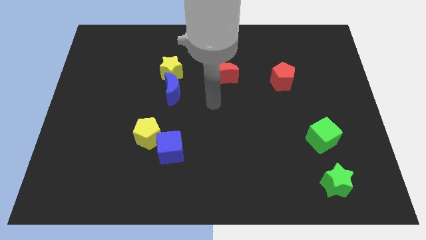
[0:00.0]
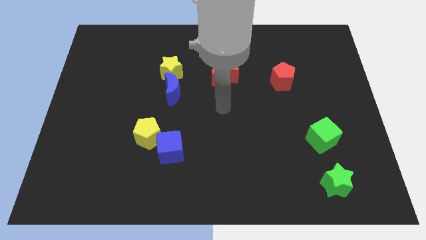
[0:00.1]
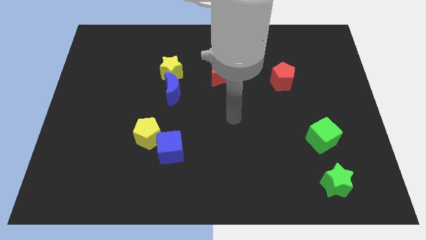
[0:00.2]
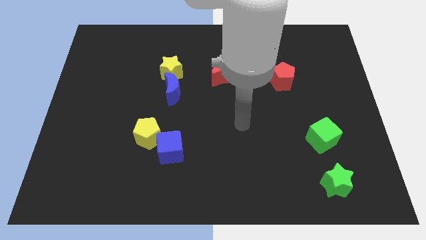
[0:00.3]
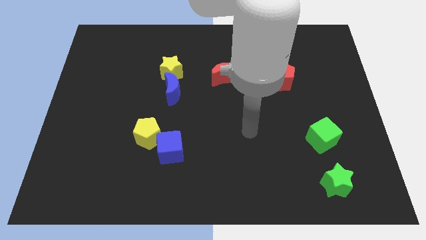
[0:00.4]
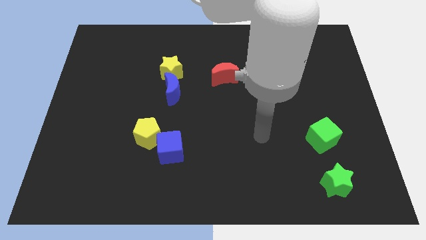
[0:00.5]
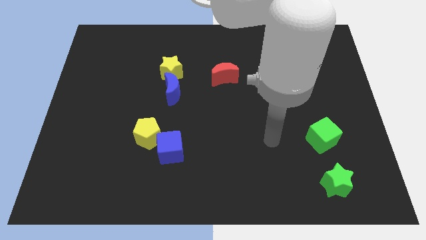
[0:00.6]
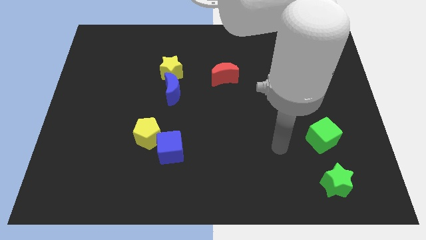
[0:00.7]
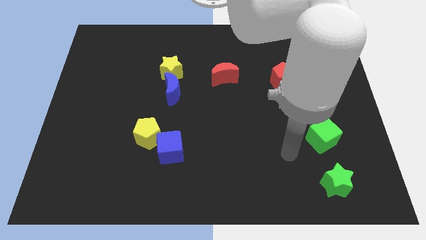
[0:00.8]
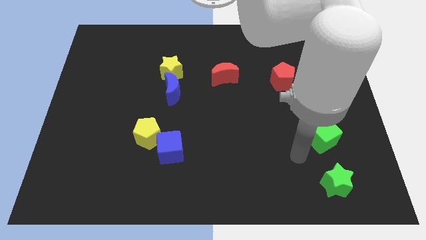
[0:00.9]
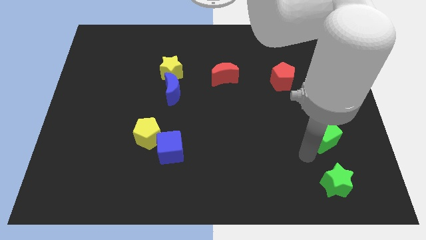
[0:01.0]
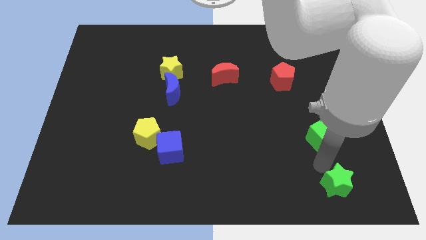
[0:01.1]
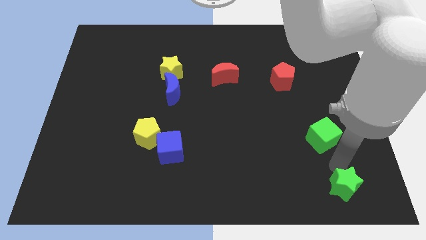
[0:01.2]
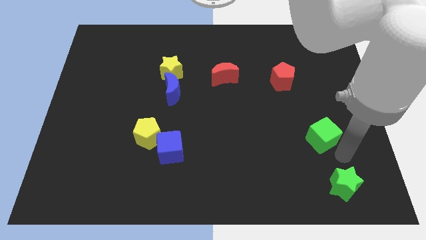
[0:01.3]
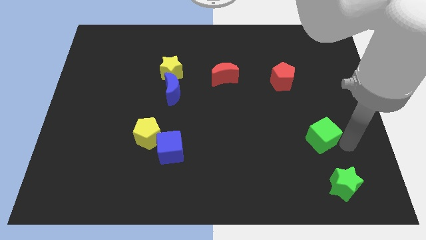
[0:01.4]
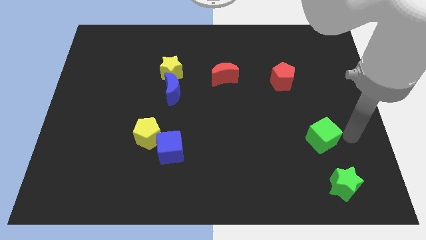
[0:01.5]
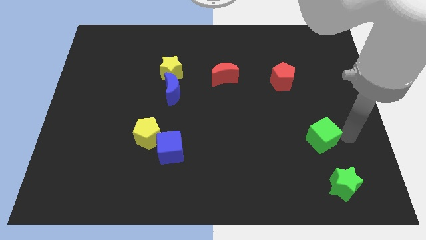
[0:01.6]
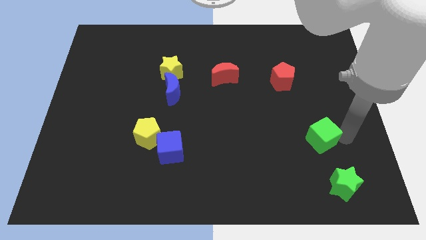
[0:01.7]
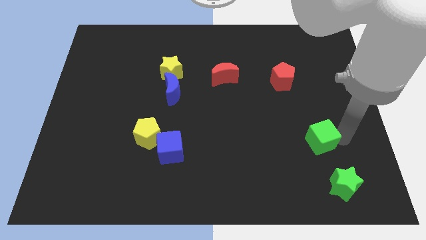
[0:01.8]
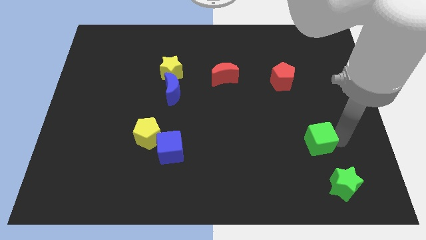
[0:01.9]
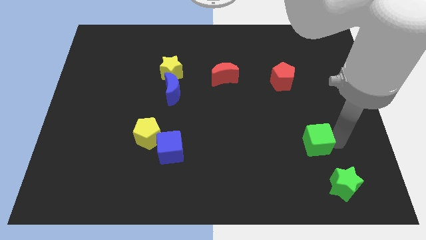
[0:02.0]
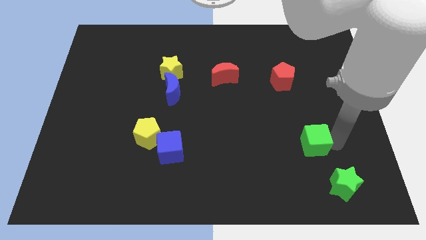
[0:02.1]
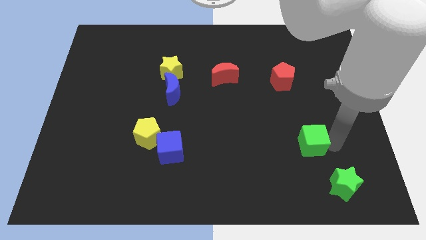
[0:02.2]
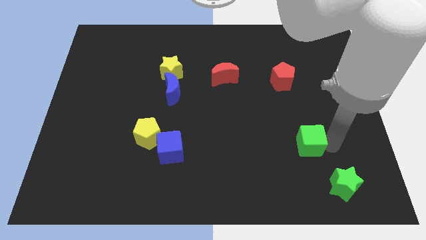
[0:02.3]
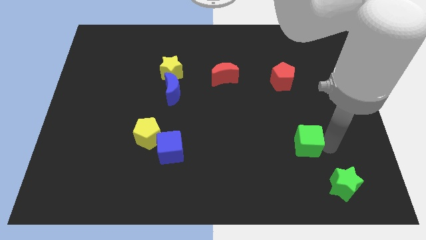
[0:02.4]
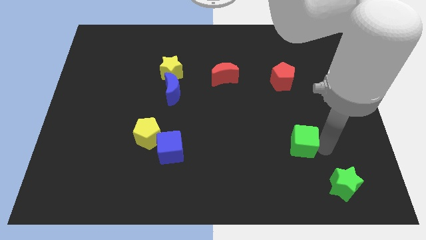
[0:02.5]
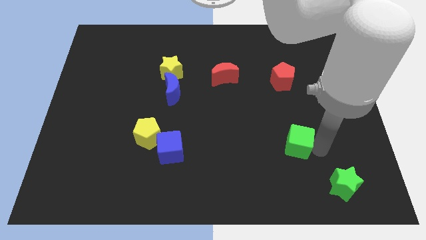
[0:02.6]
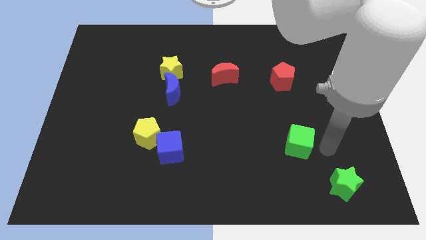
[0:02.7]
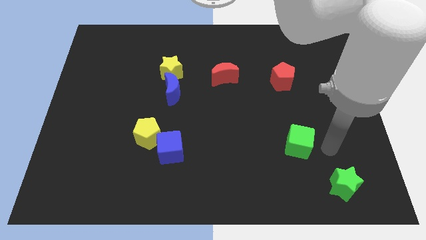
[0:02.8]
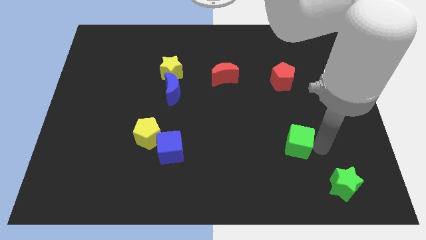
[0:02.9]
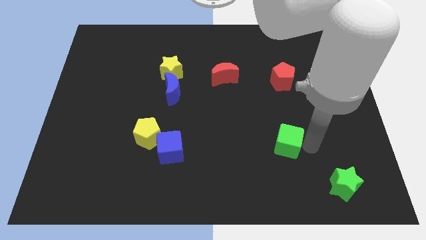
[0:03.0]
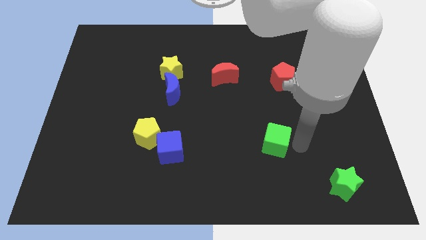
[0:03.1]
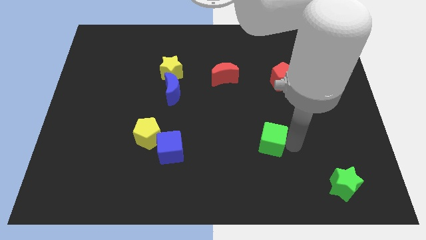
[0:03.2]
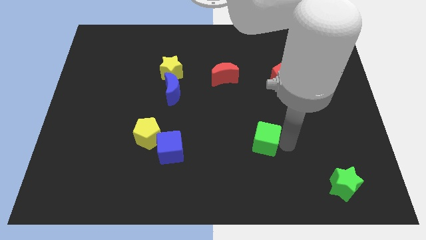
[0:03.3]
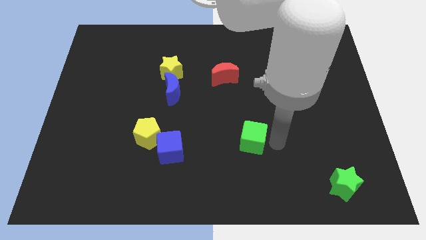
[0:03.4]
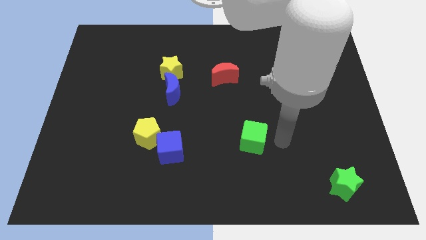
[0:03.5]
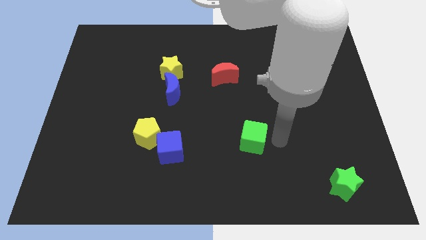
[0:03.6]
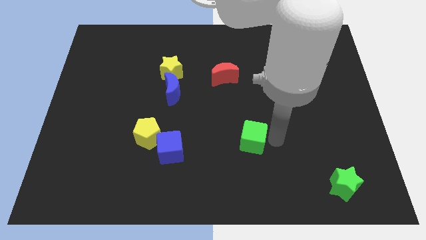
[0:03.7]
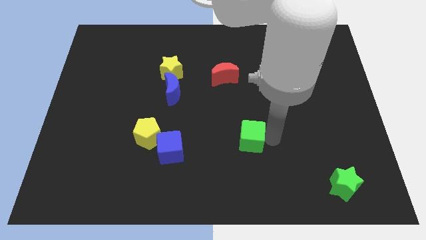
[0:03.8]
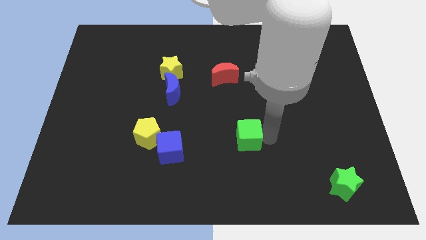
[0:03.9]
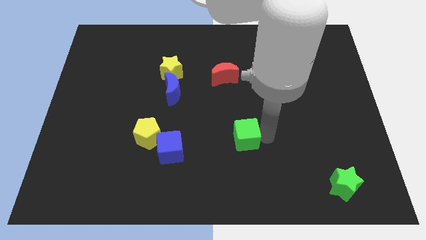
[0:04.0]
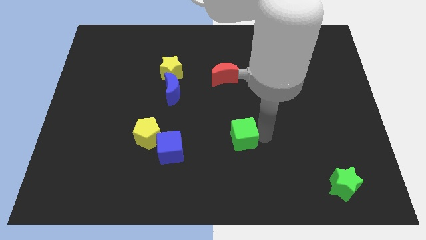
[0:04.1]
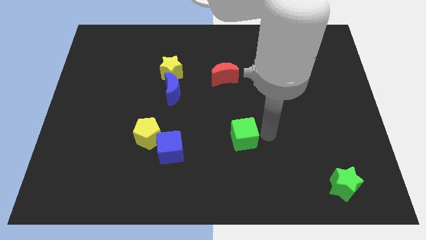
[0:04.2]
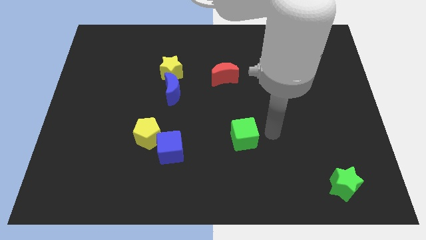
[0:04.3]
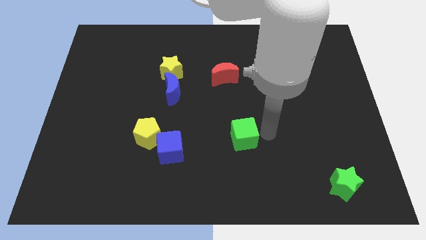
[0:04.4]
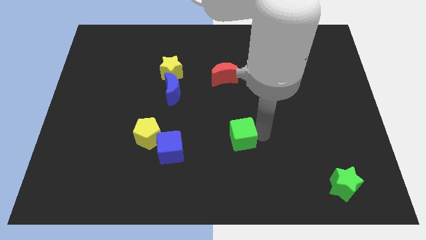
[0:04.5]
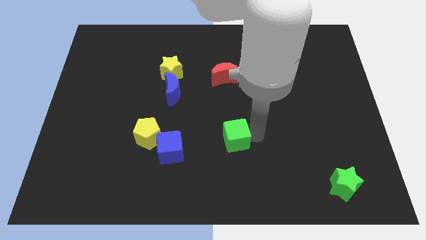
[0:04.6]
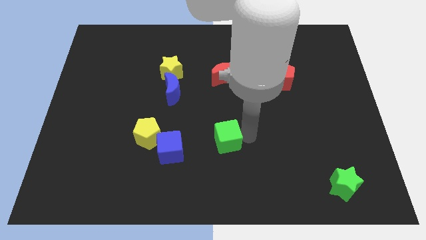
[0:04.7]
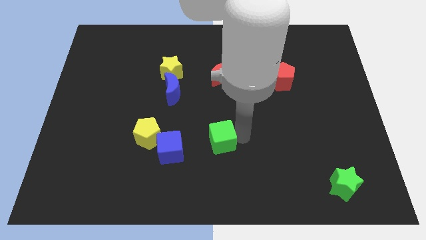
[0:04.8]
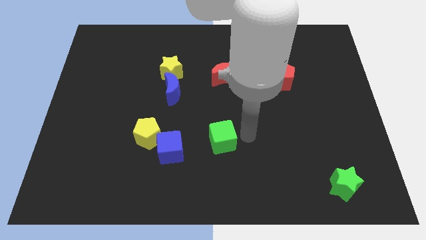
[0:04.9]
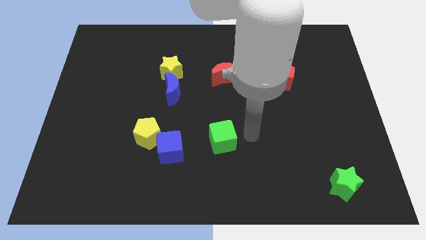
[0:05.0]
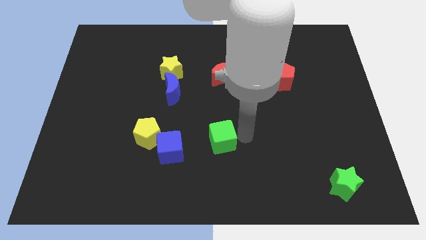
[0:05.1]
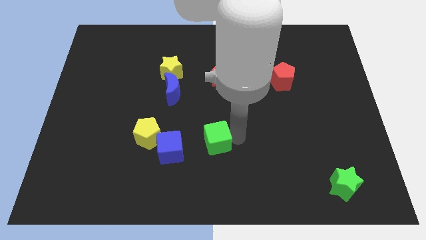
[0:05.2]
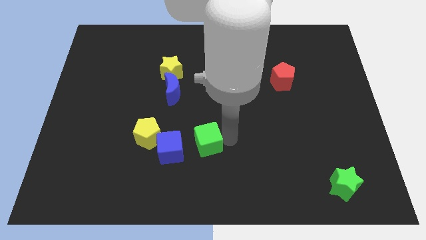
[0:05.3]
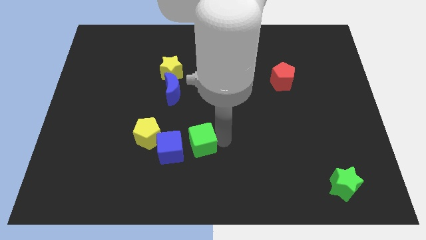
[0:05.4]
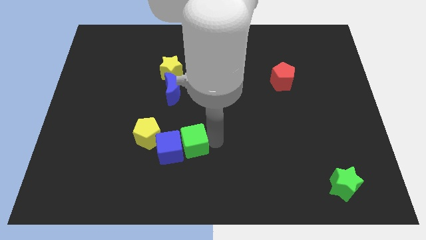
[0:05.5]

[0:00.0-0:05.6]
move the green cube next to the blue cube

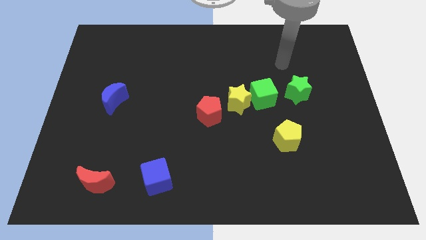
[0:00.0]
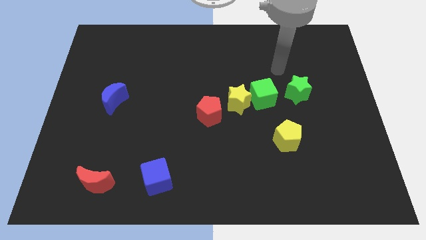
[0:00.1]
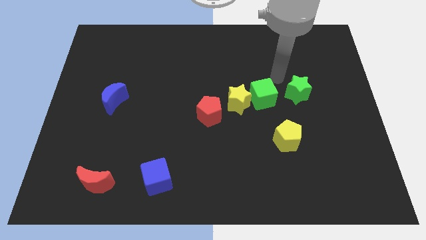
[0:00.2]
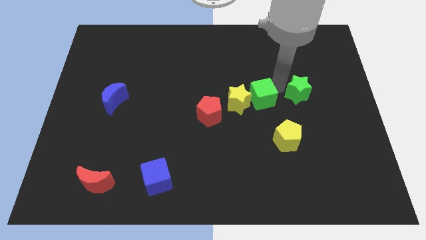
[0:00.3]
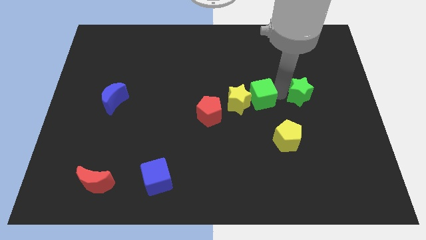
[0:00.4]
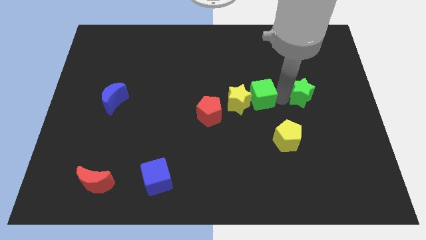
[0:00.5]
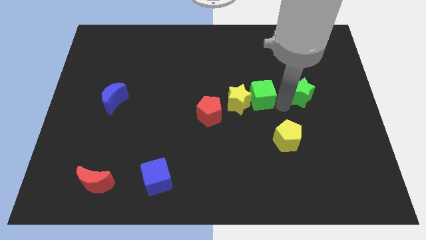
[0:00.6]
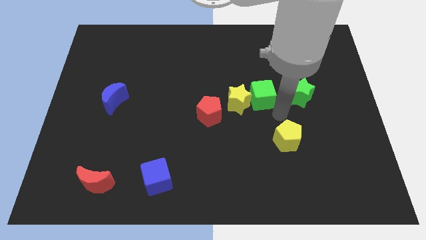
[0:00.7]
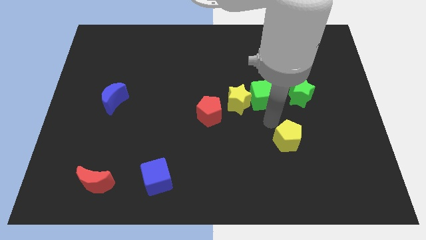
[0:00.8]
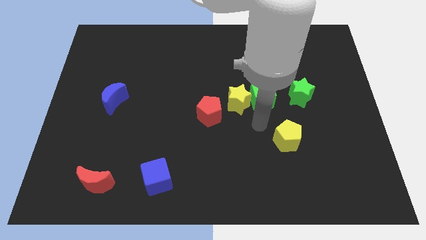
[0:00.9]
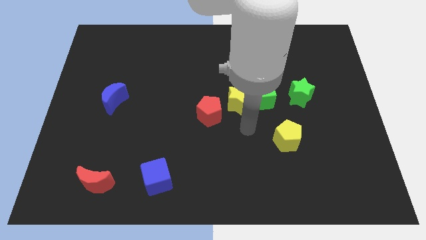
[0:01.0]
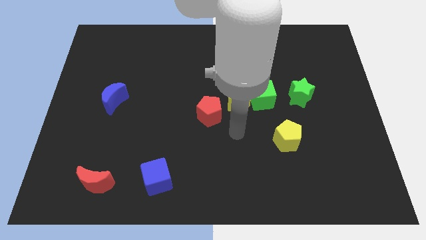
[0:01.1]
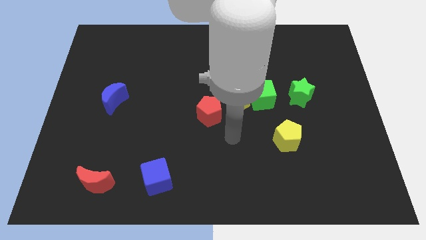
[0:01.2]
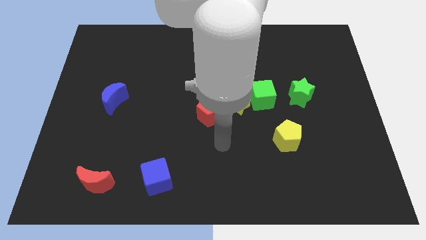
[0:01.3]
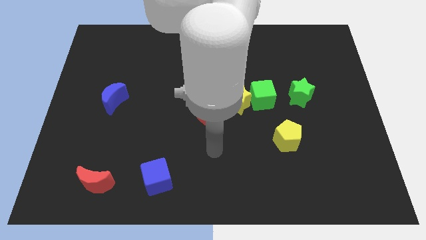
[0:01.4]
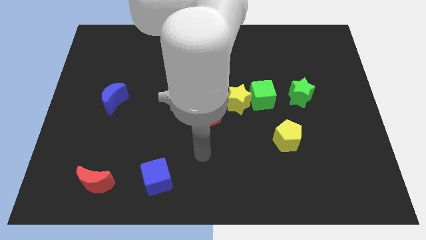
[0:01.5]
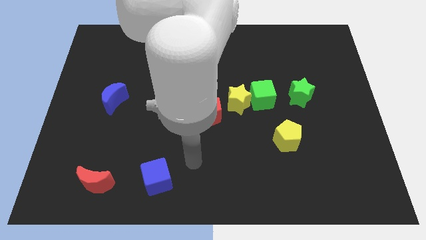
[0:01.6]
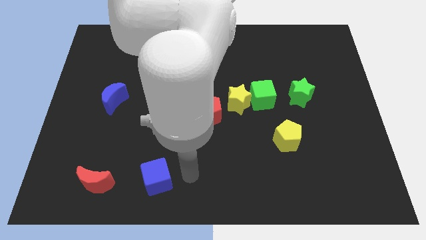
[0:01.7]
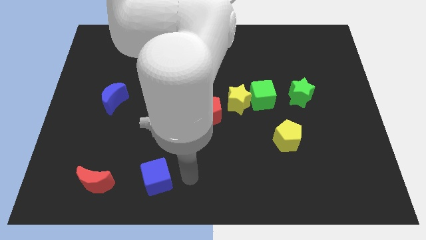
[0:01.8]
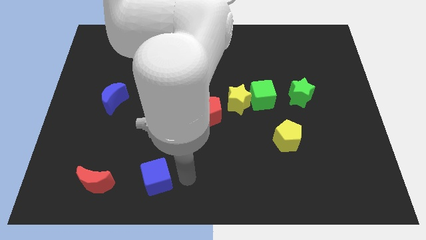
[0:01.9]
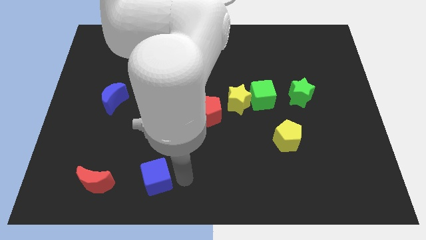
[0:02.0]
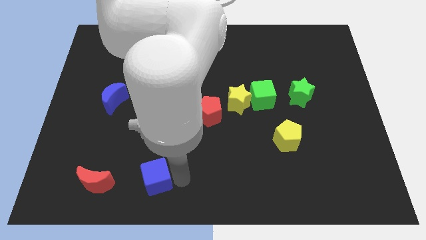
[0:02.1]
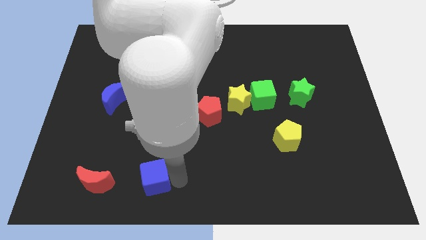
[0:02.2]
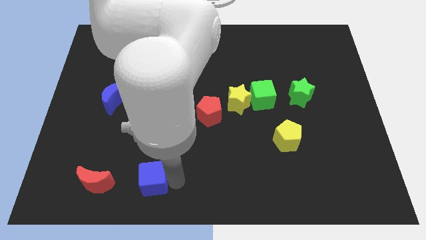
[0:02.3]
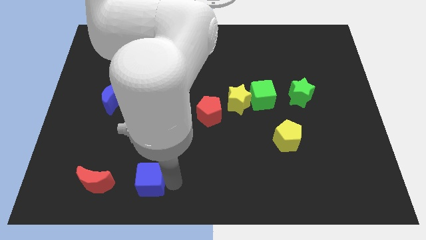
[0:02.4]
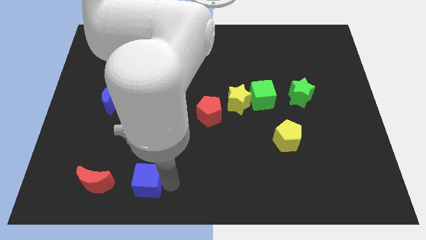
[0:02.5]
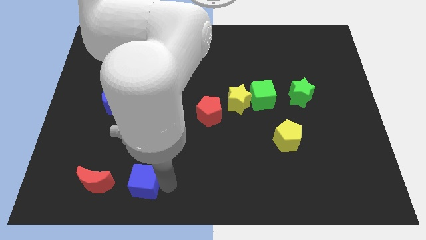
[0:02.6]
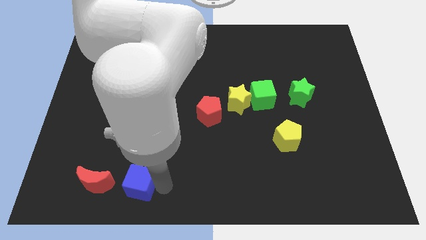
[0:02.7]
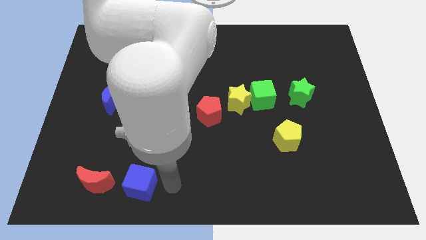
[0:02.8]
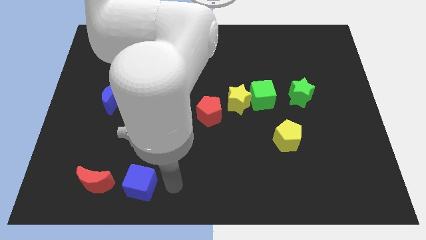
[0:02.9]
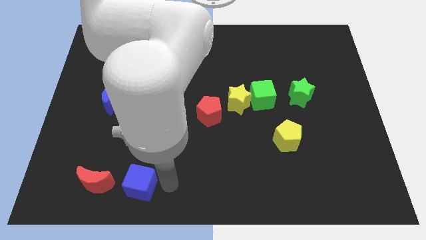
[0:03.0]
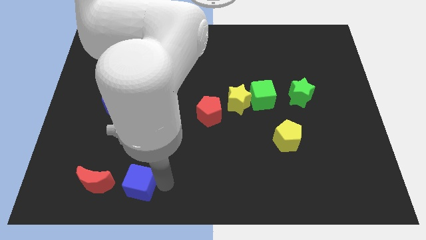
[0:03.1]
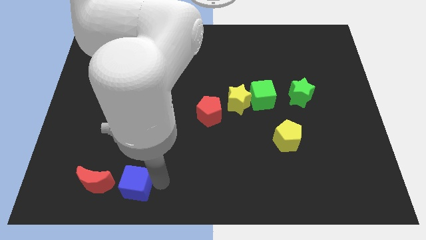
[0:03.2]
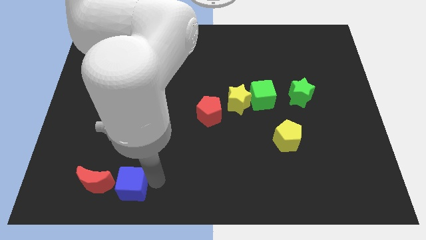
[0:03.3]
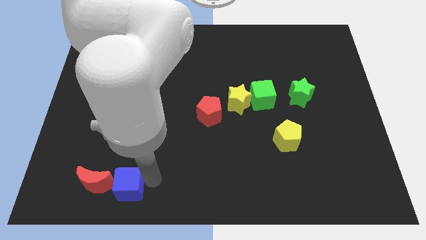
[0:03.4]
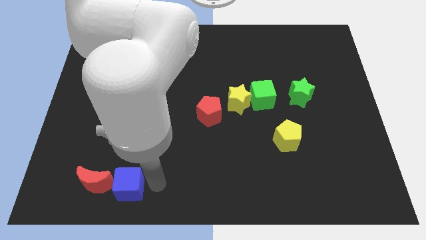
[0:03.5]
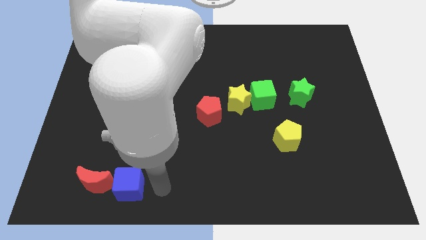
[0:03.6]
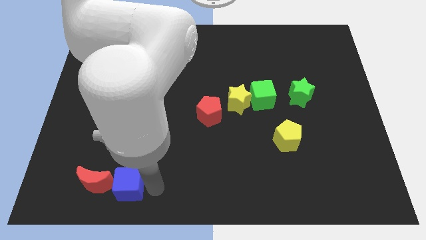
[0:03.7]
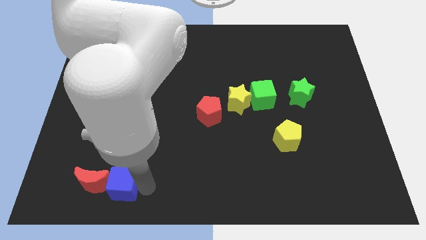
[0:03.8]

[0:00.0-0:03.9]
put the blue cube next to the red moon
